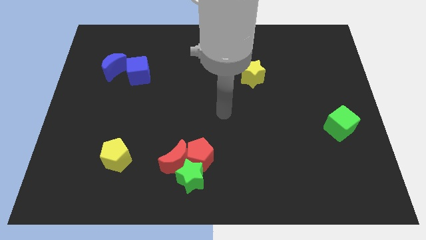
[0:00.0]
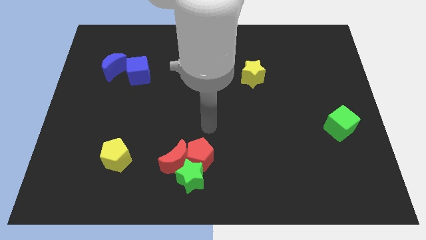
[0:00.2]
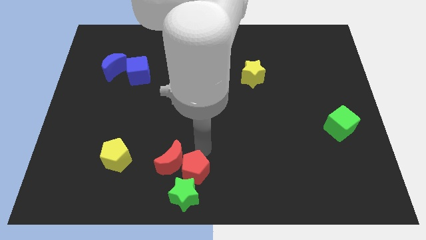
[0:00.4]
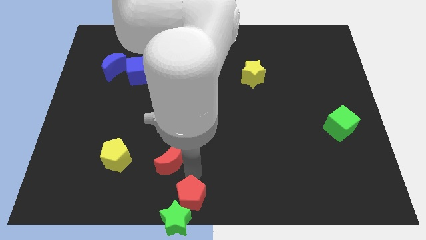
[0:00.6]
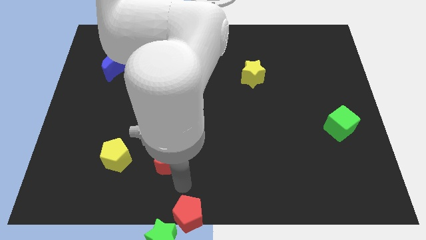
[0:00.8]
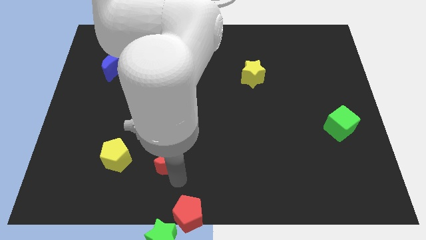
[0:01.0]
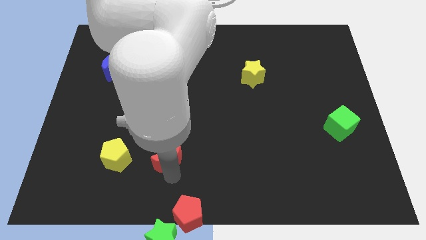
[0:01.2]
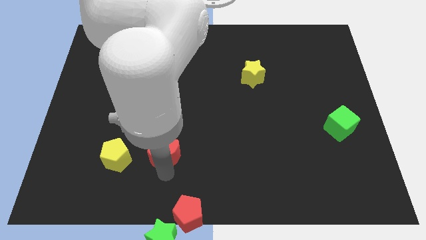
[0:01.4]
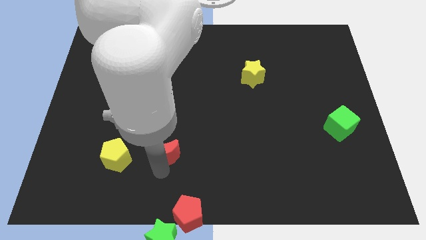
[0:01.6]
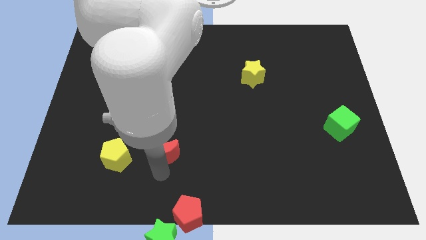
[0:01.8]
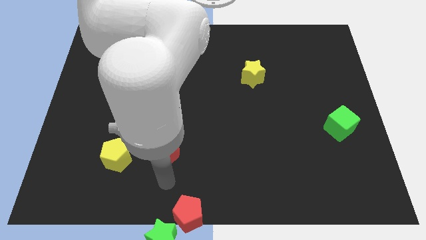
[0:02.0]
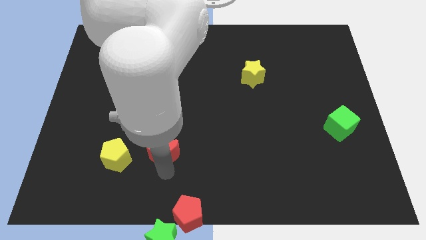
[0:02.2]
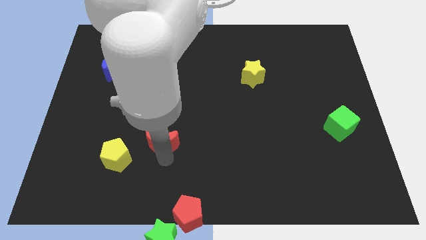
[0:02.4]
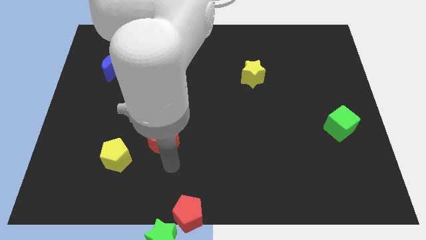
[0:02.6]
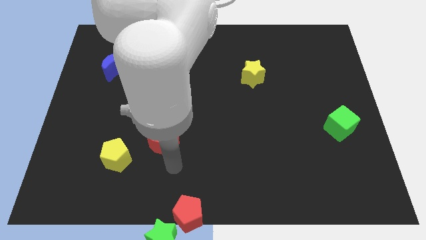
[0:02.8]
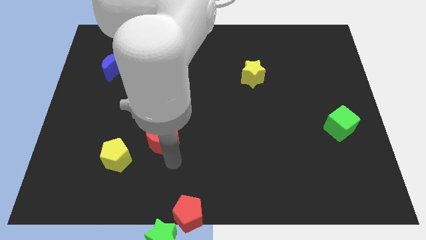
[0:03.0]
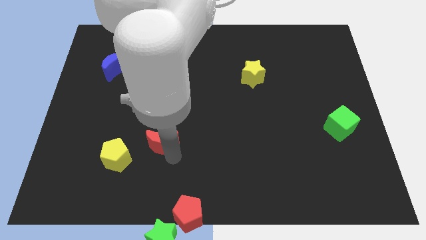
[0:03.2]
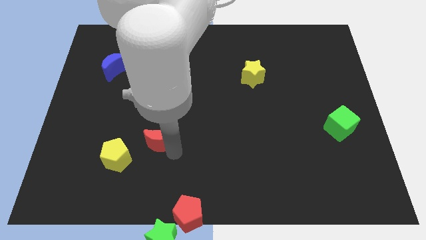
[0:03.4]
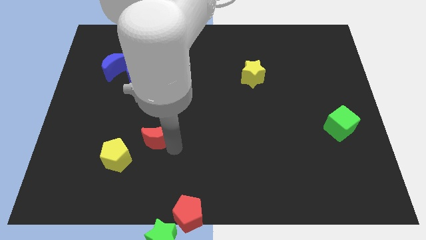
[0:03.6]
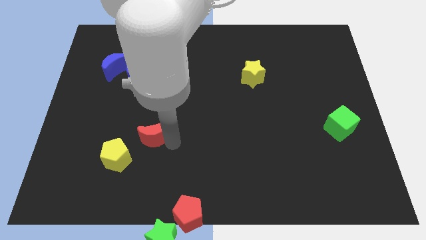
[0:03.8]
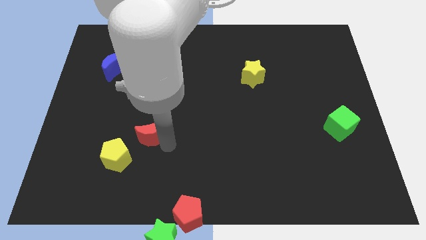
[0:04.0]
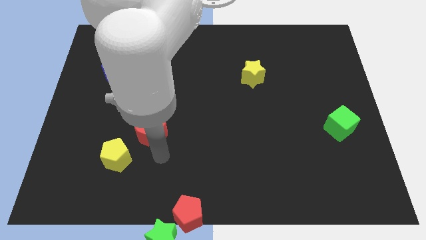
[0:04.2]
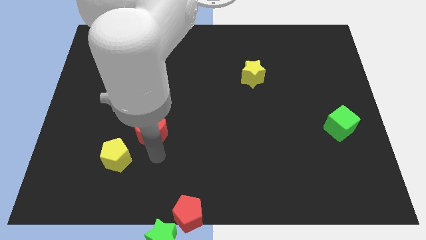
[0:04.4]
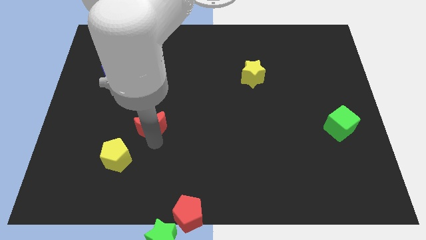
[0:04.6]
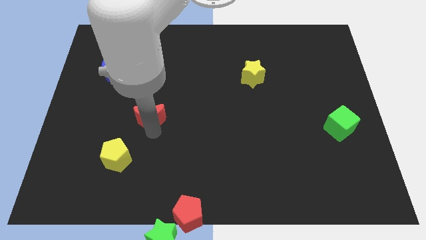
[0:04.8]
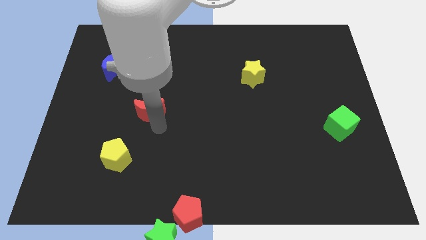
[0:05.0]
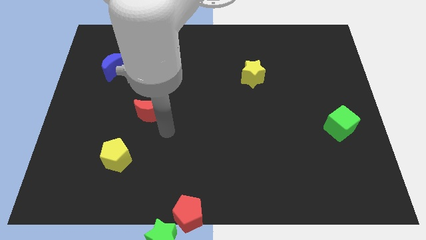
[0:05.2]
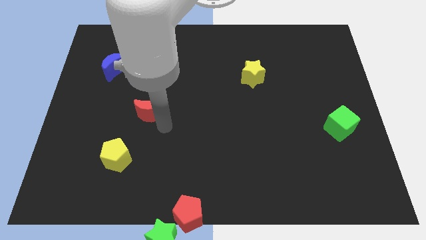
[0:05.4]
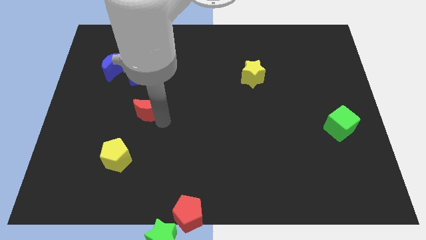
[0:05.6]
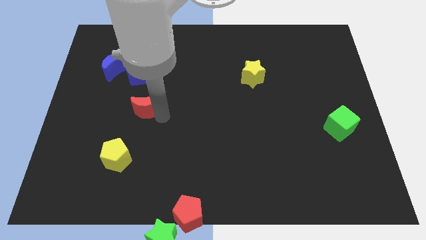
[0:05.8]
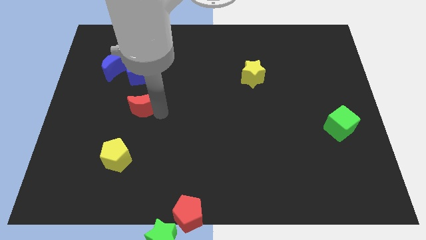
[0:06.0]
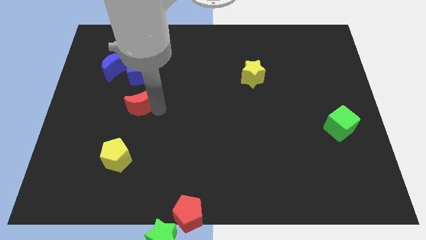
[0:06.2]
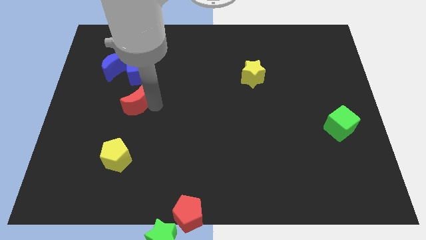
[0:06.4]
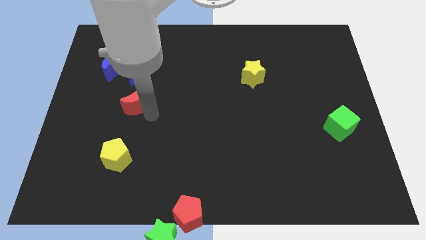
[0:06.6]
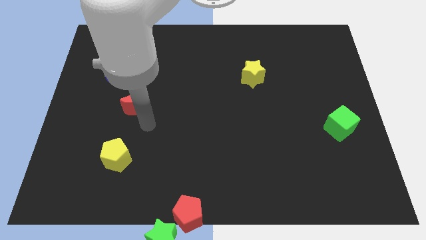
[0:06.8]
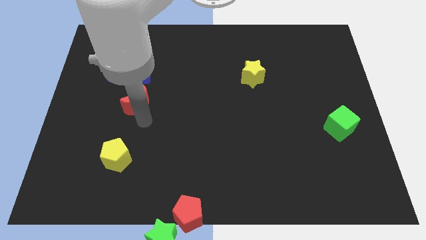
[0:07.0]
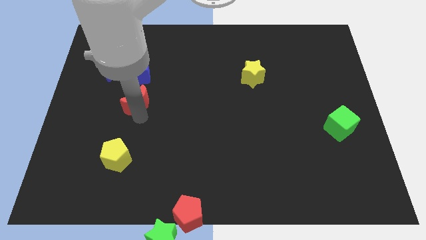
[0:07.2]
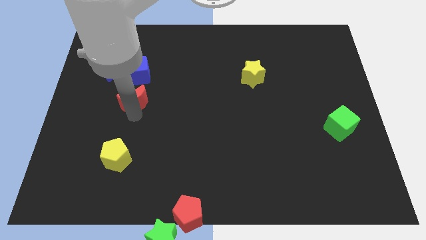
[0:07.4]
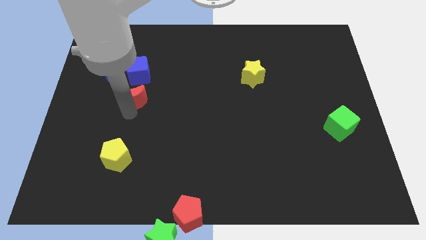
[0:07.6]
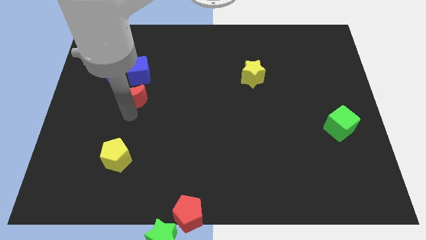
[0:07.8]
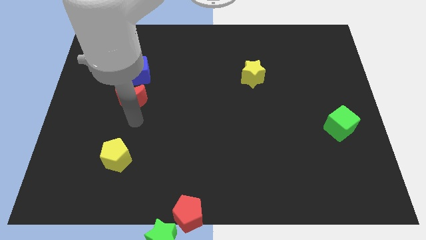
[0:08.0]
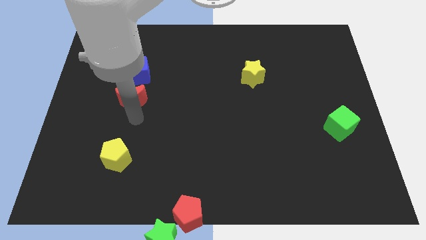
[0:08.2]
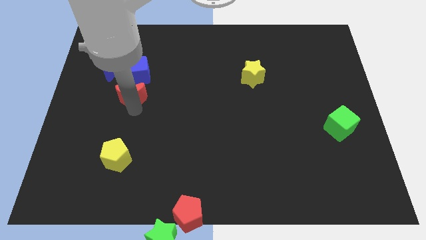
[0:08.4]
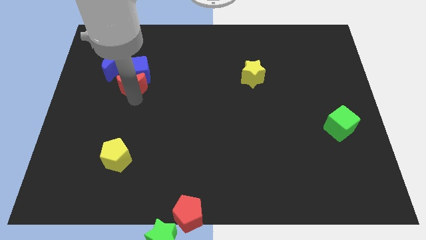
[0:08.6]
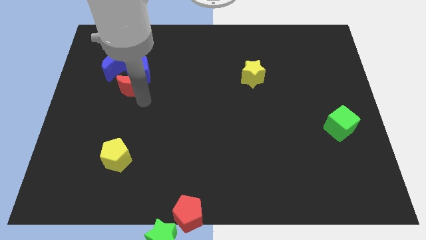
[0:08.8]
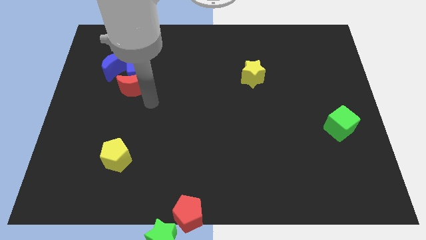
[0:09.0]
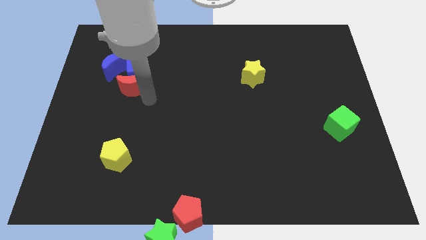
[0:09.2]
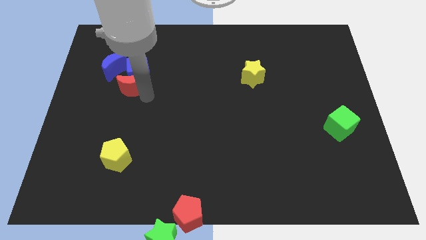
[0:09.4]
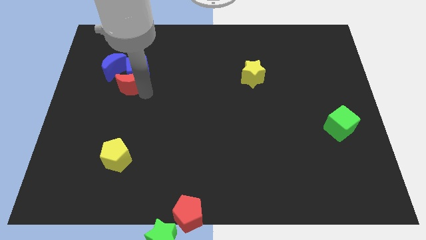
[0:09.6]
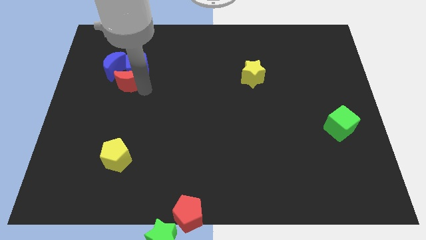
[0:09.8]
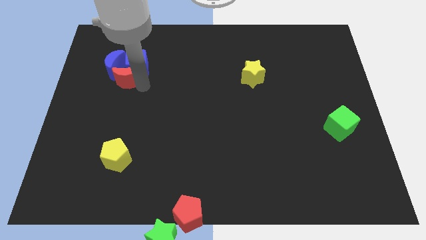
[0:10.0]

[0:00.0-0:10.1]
move the red moon next to the blue moon

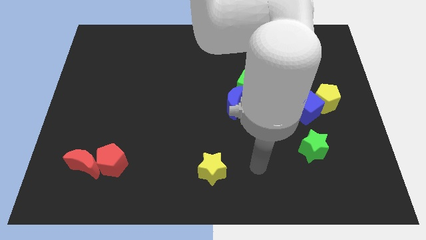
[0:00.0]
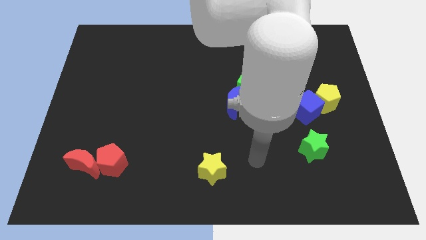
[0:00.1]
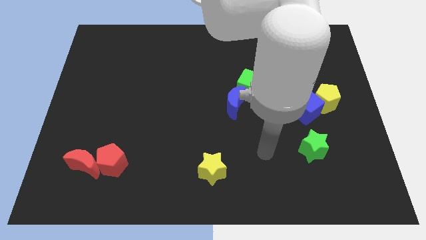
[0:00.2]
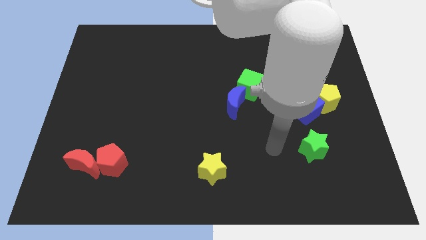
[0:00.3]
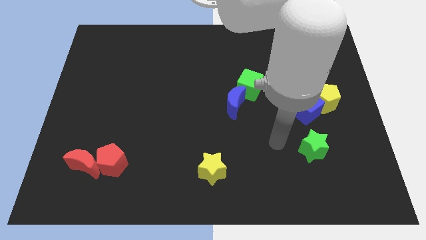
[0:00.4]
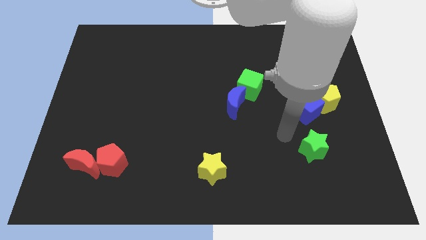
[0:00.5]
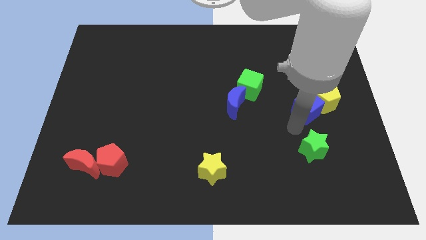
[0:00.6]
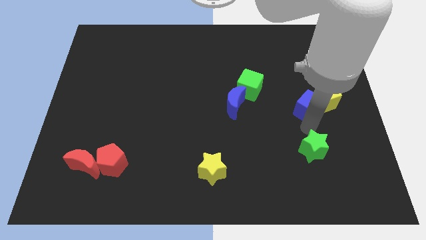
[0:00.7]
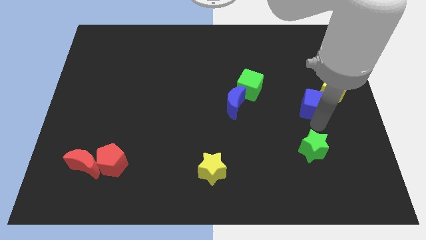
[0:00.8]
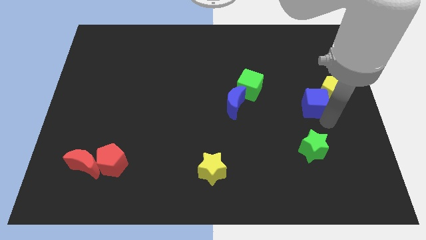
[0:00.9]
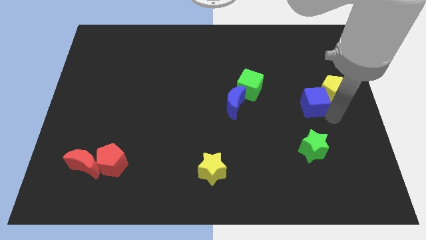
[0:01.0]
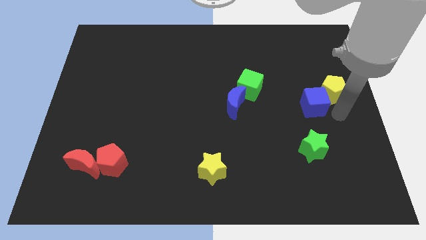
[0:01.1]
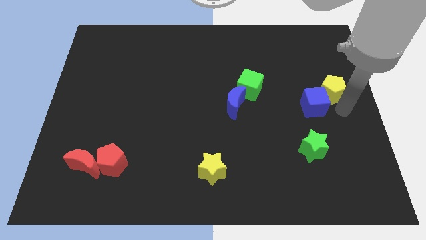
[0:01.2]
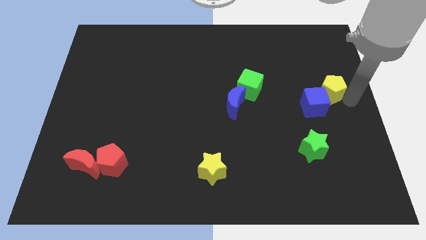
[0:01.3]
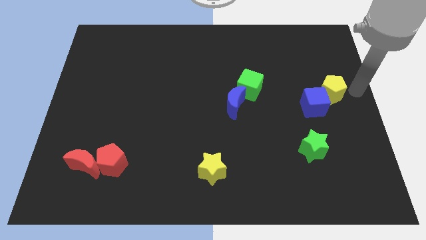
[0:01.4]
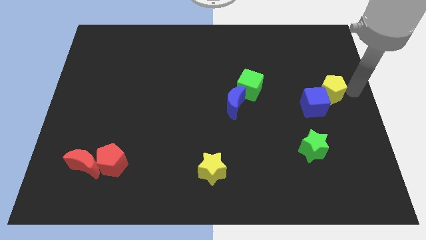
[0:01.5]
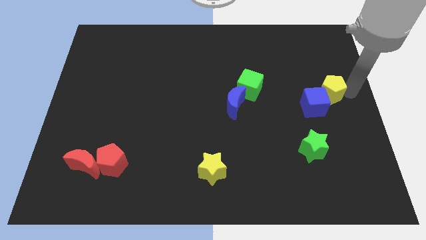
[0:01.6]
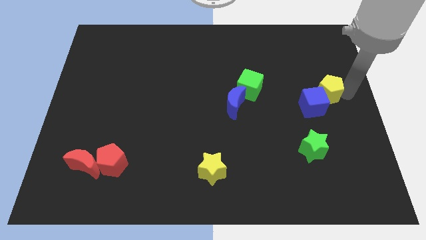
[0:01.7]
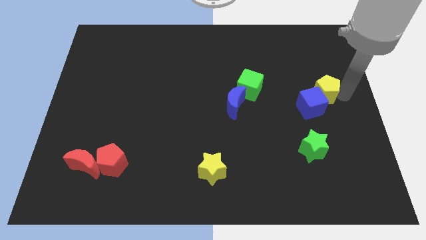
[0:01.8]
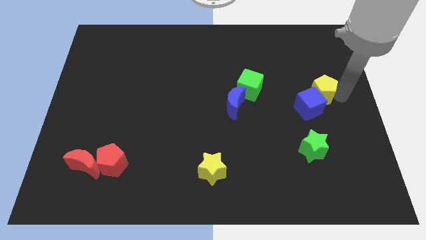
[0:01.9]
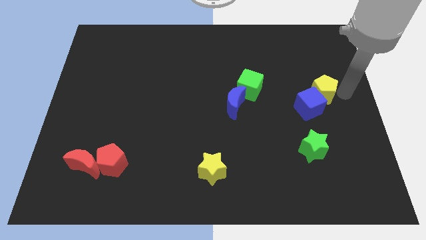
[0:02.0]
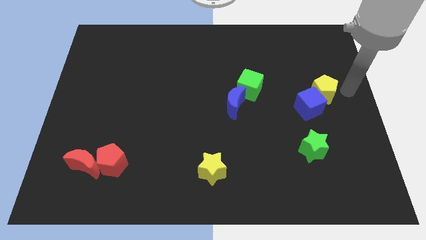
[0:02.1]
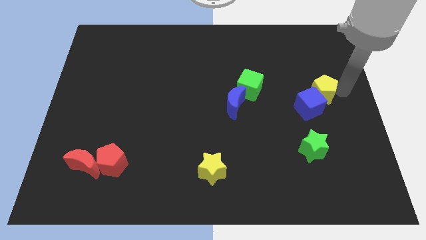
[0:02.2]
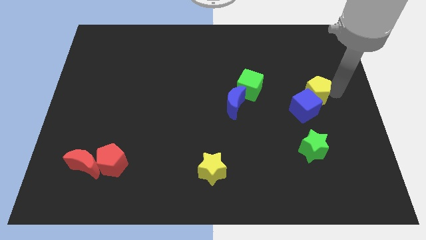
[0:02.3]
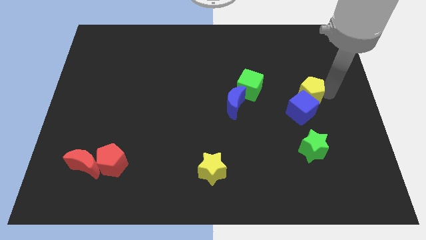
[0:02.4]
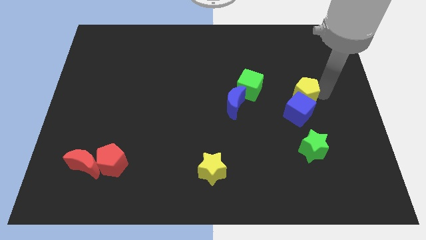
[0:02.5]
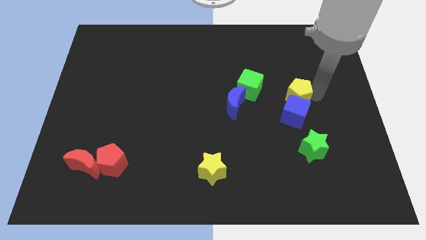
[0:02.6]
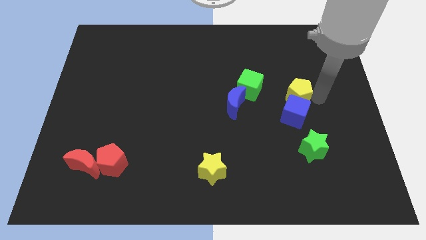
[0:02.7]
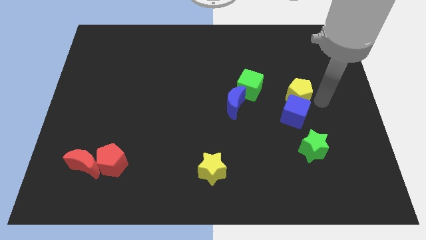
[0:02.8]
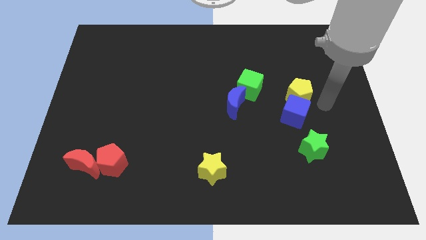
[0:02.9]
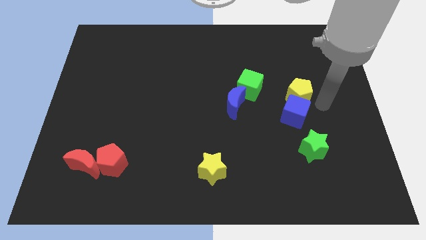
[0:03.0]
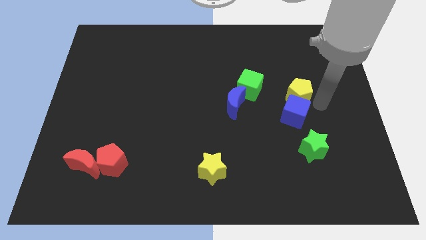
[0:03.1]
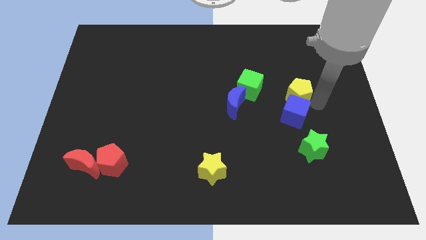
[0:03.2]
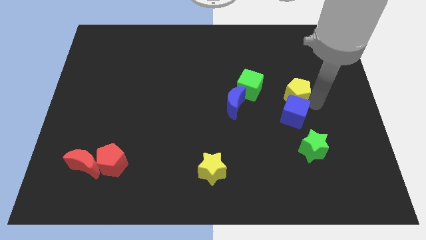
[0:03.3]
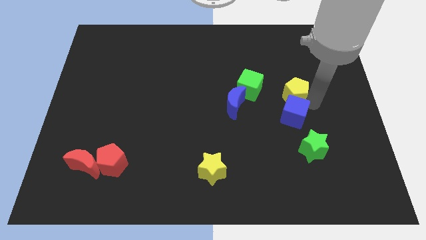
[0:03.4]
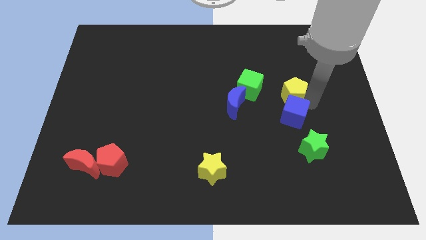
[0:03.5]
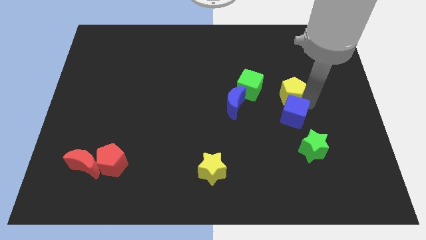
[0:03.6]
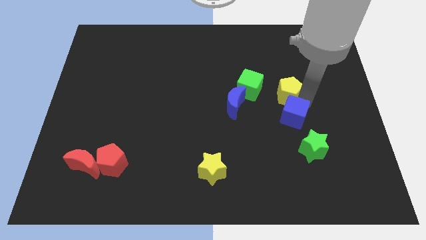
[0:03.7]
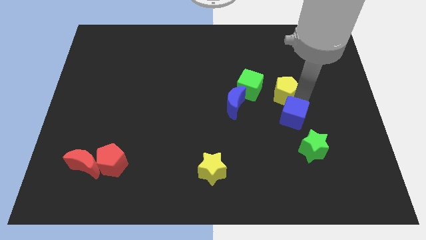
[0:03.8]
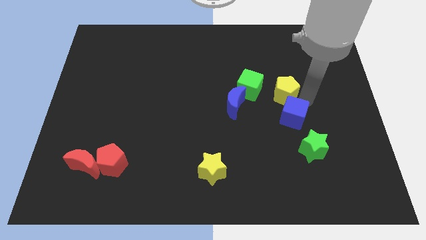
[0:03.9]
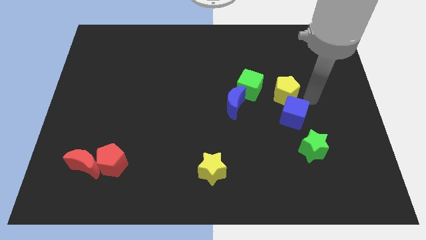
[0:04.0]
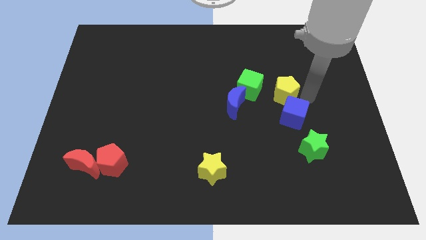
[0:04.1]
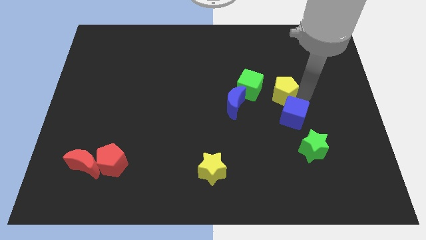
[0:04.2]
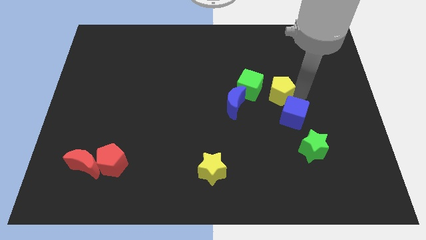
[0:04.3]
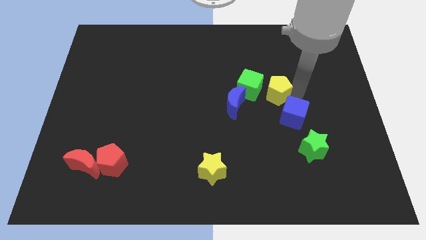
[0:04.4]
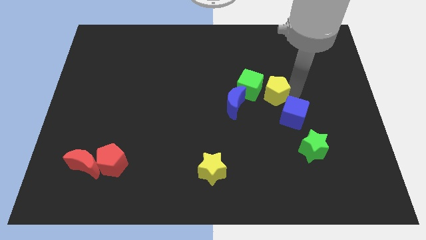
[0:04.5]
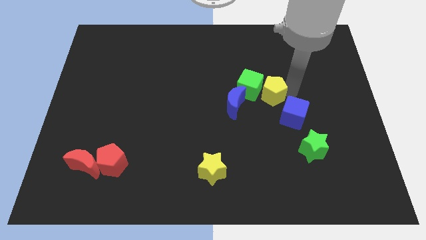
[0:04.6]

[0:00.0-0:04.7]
put the yellow pentagon to the green cube
